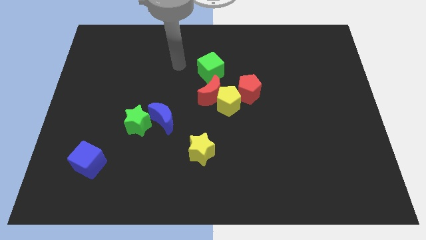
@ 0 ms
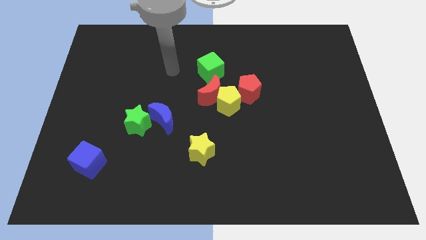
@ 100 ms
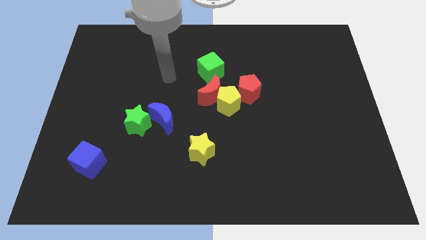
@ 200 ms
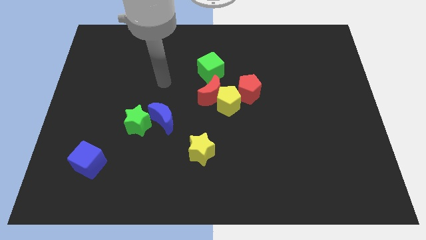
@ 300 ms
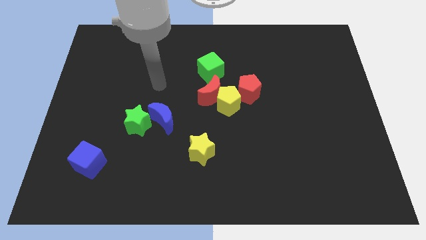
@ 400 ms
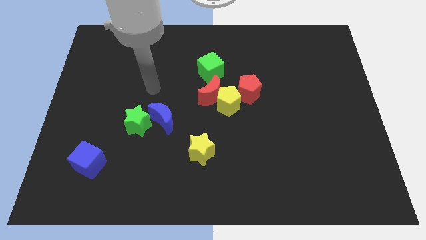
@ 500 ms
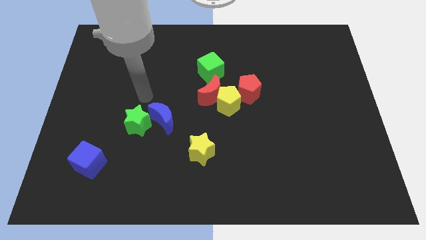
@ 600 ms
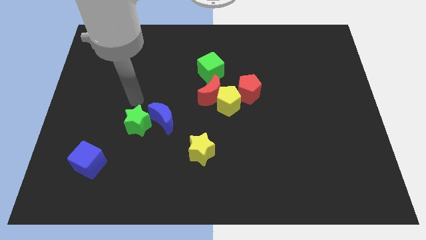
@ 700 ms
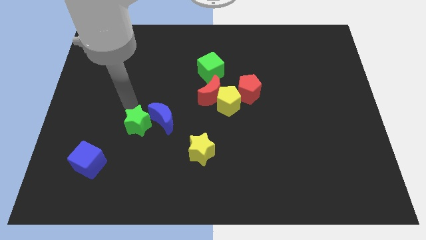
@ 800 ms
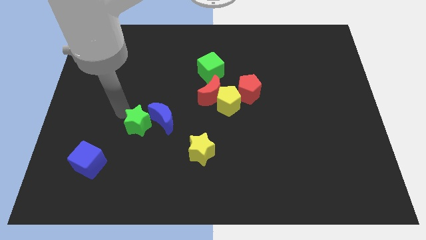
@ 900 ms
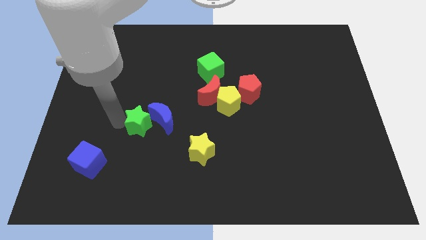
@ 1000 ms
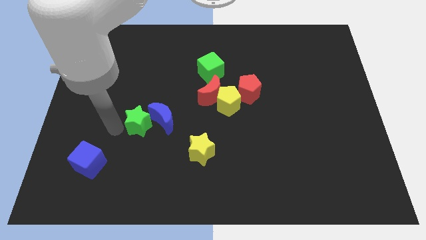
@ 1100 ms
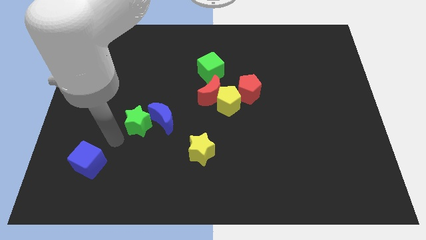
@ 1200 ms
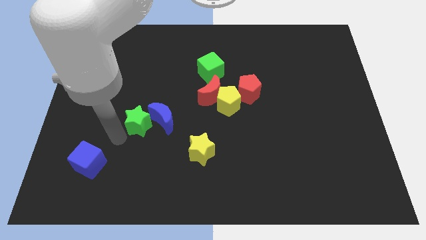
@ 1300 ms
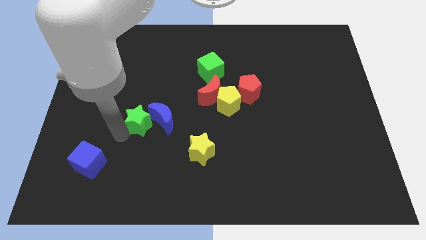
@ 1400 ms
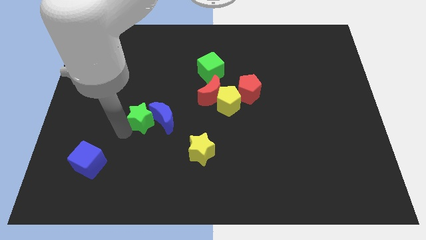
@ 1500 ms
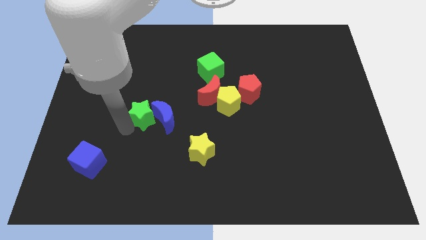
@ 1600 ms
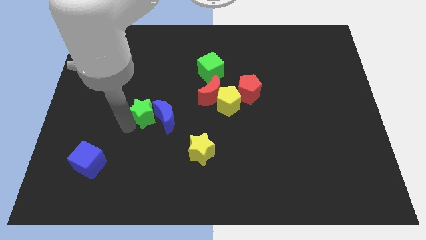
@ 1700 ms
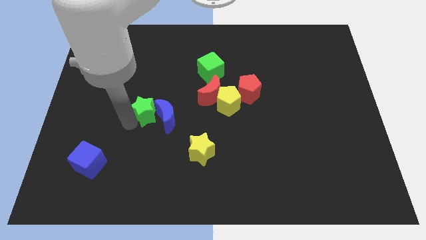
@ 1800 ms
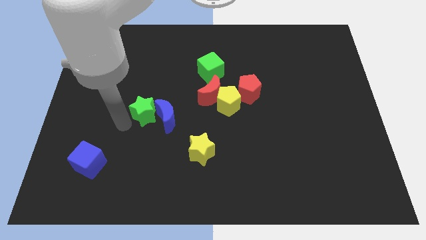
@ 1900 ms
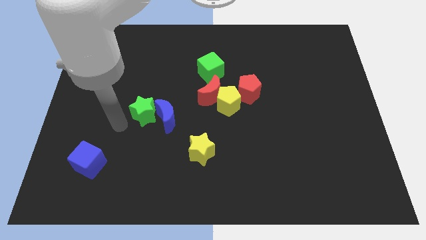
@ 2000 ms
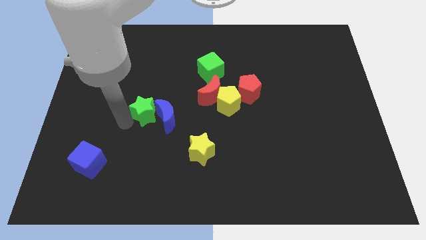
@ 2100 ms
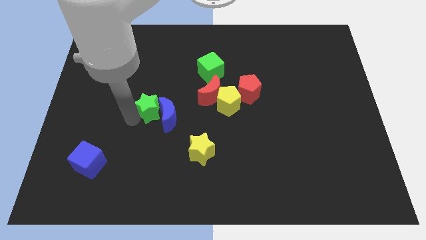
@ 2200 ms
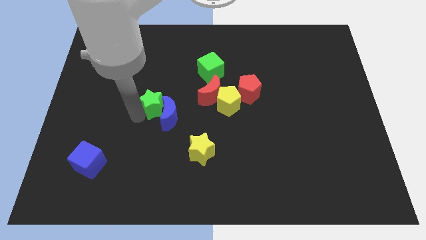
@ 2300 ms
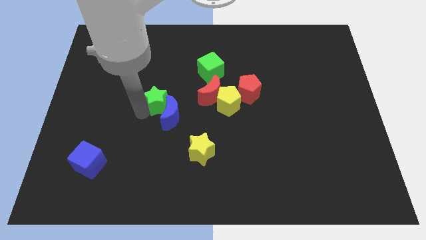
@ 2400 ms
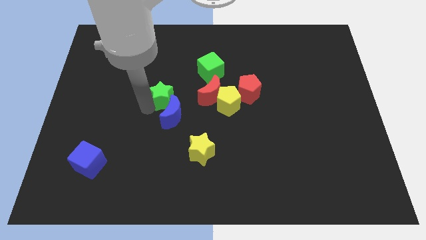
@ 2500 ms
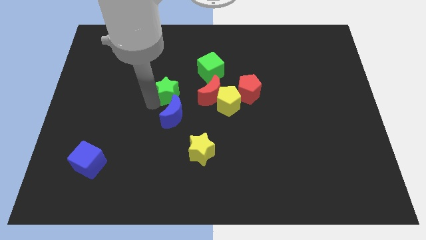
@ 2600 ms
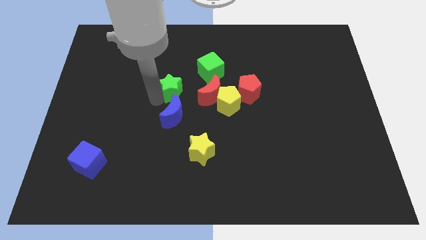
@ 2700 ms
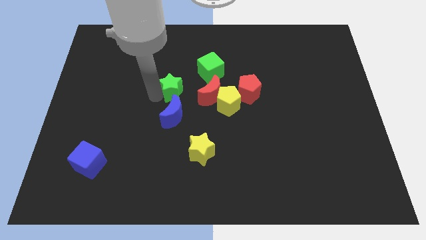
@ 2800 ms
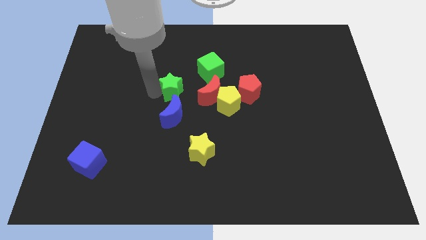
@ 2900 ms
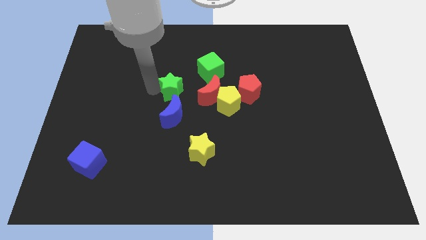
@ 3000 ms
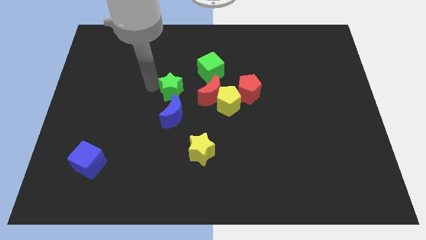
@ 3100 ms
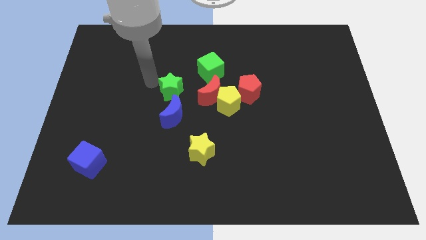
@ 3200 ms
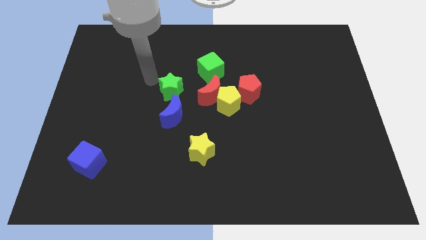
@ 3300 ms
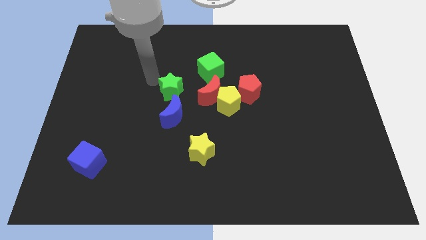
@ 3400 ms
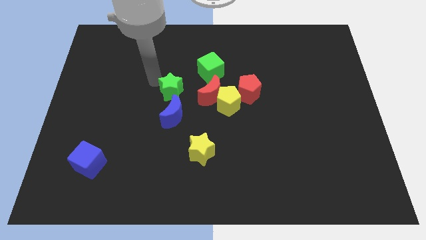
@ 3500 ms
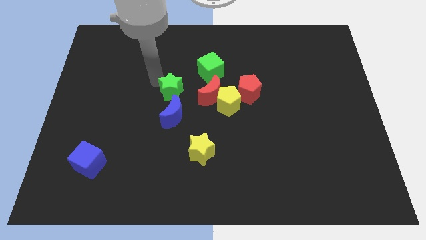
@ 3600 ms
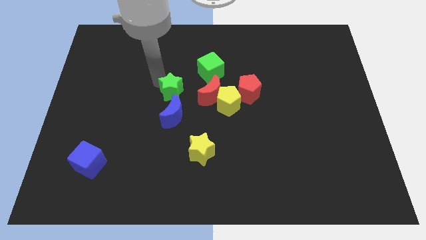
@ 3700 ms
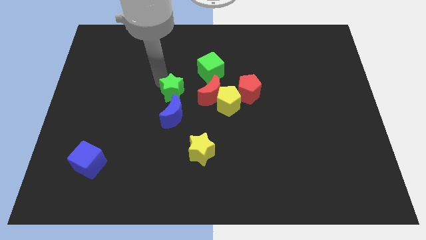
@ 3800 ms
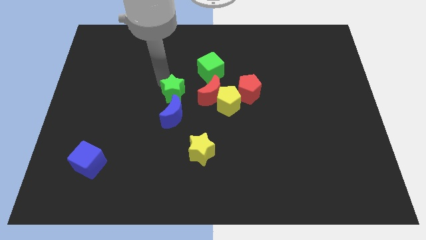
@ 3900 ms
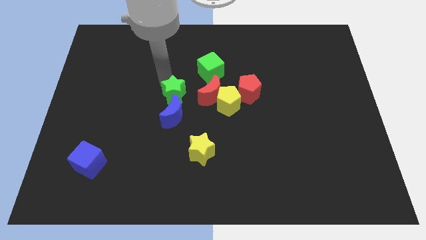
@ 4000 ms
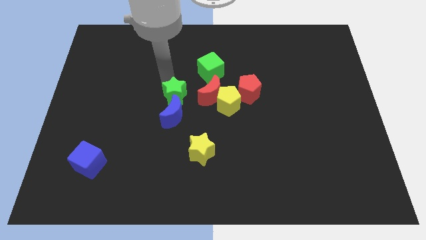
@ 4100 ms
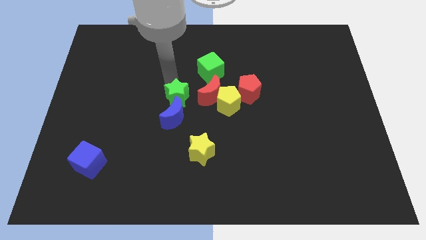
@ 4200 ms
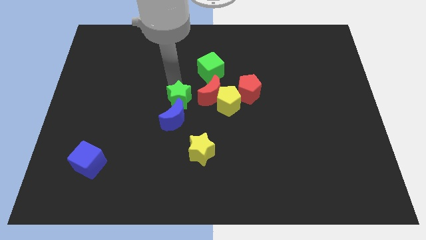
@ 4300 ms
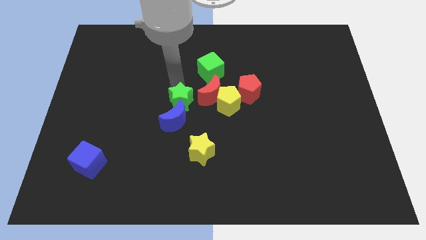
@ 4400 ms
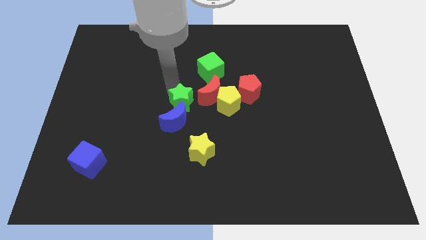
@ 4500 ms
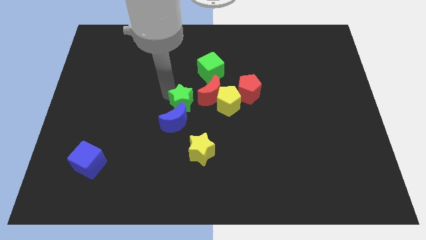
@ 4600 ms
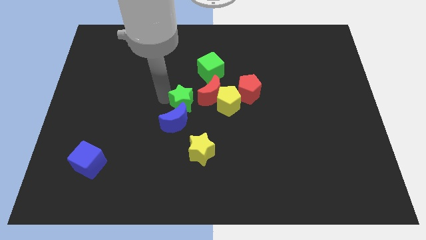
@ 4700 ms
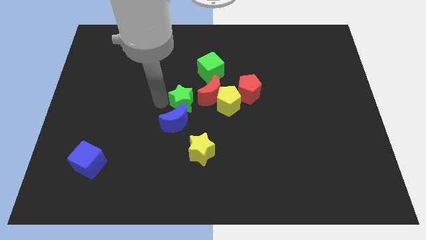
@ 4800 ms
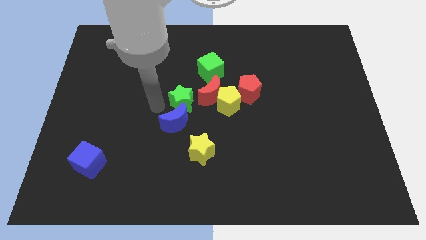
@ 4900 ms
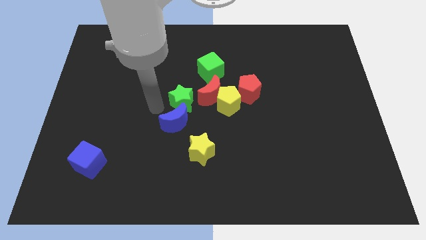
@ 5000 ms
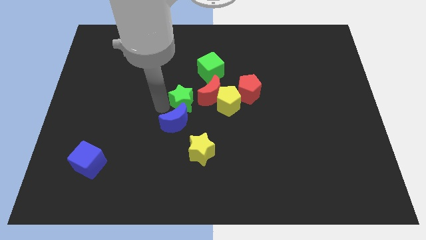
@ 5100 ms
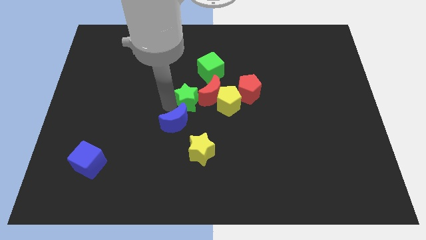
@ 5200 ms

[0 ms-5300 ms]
slide the green star to the red moon

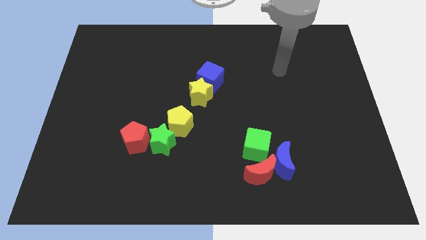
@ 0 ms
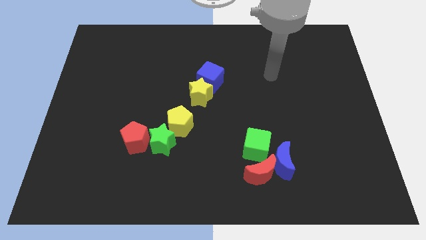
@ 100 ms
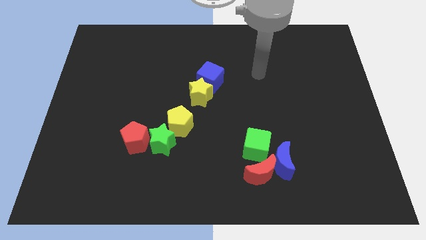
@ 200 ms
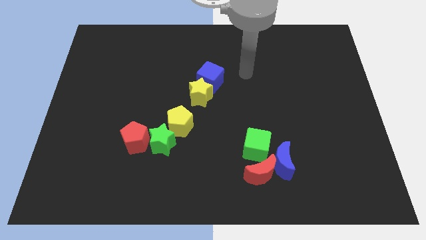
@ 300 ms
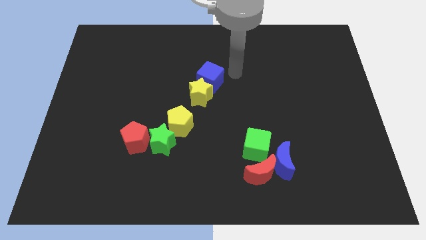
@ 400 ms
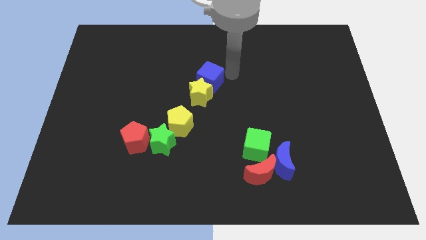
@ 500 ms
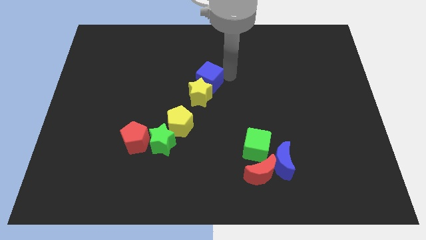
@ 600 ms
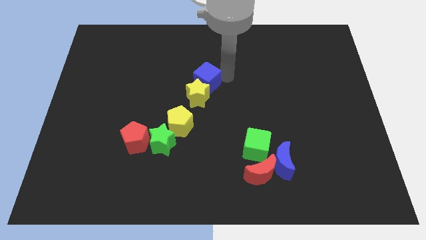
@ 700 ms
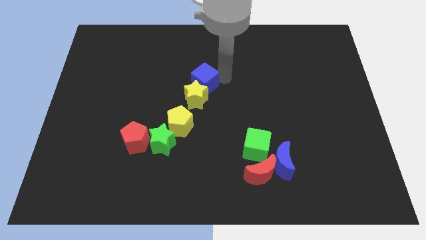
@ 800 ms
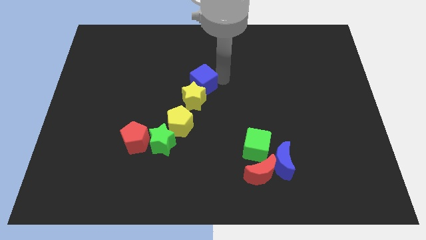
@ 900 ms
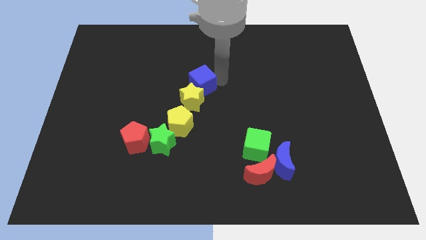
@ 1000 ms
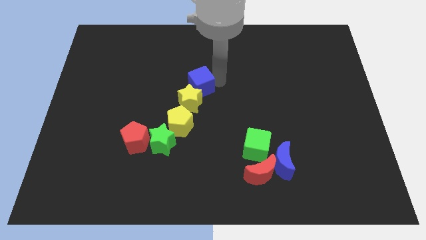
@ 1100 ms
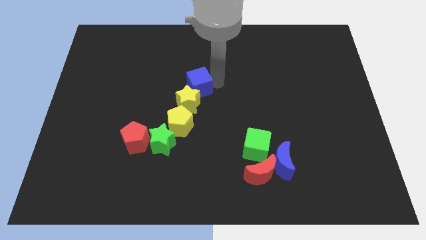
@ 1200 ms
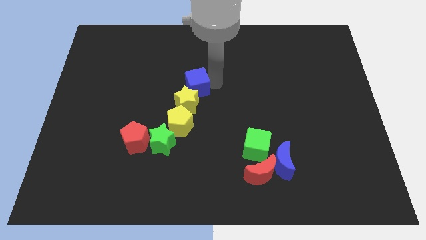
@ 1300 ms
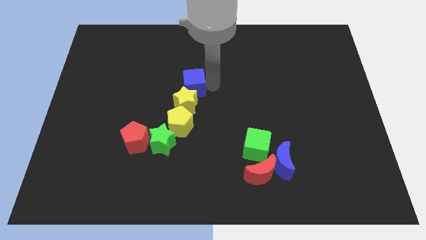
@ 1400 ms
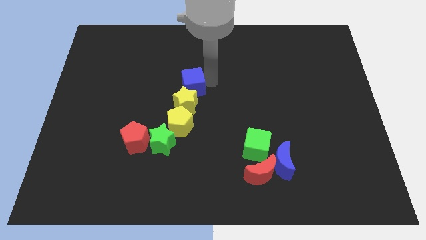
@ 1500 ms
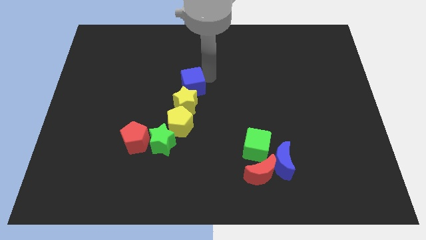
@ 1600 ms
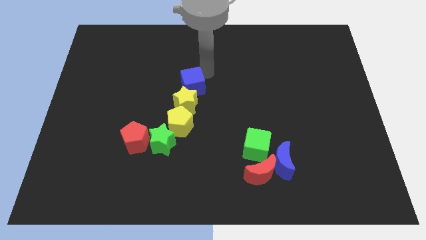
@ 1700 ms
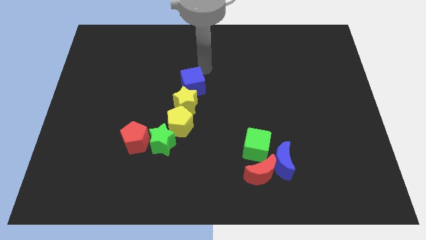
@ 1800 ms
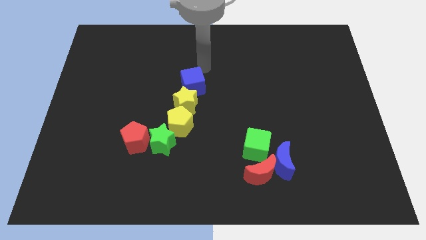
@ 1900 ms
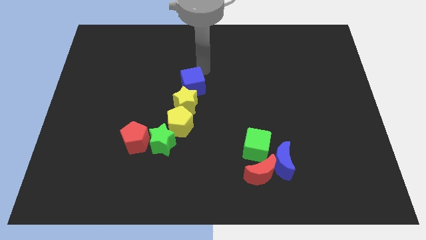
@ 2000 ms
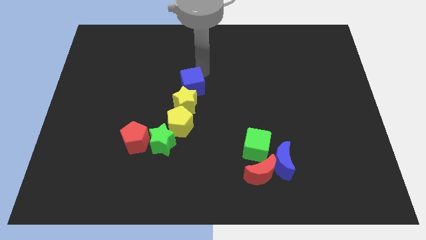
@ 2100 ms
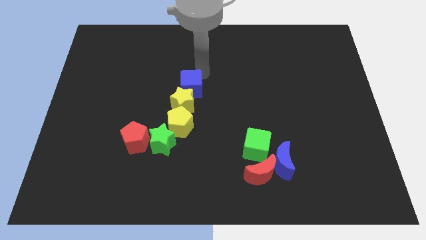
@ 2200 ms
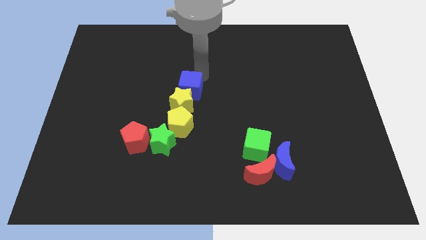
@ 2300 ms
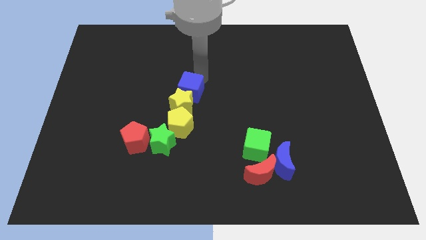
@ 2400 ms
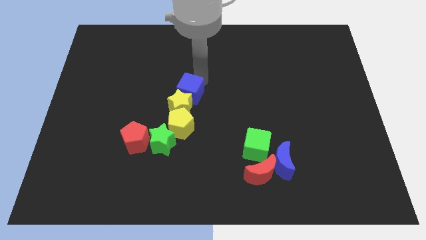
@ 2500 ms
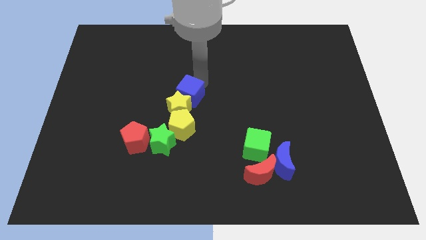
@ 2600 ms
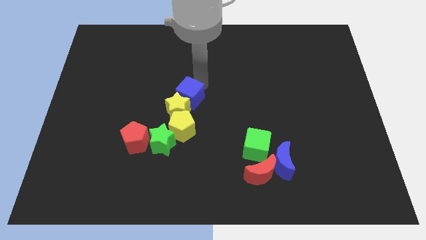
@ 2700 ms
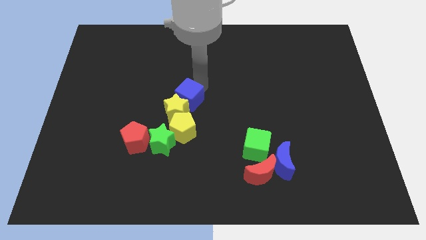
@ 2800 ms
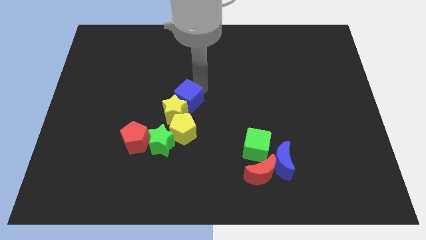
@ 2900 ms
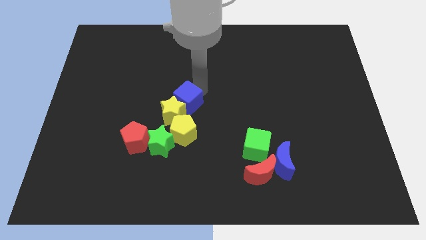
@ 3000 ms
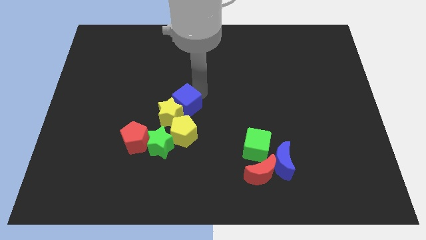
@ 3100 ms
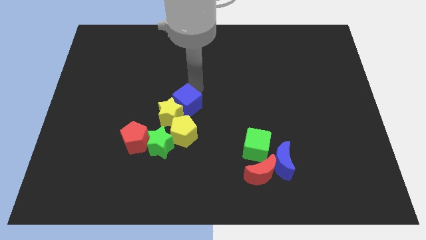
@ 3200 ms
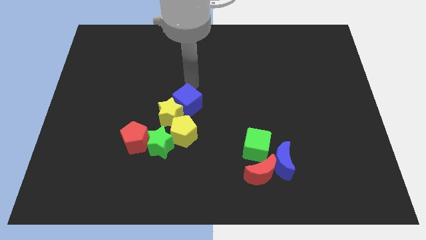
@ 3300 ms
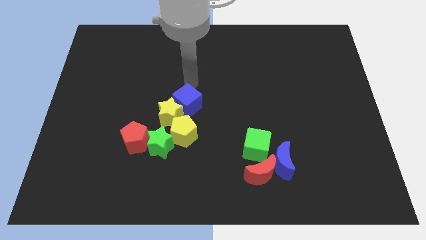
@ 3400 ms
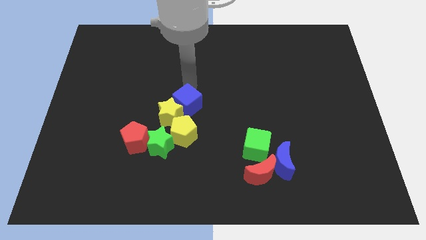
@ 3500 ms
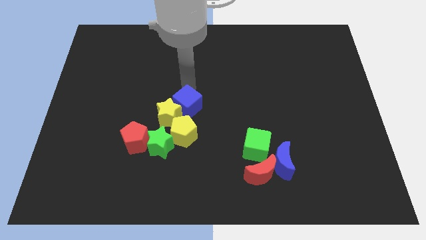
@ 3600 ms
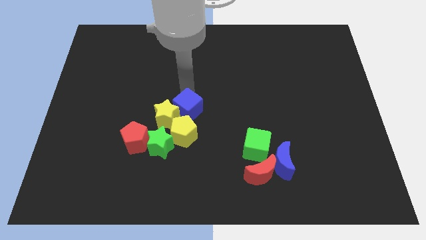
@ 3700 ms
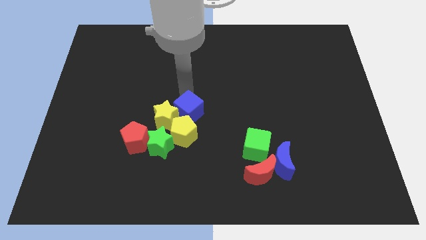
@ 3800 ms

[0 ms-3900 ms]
put the blue cube next to the yellow pentagon
